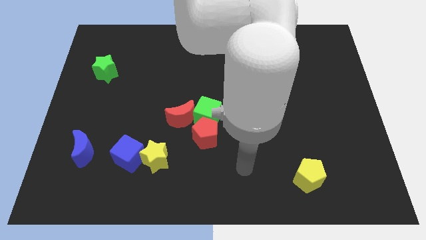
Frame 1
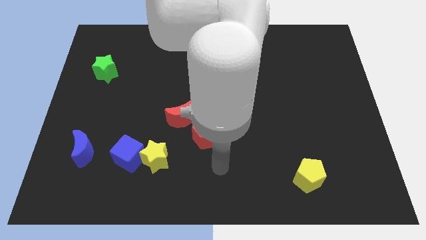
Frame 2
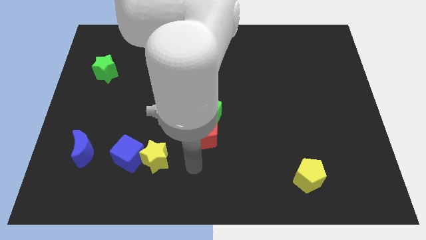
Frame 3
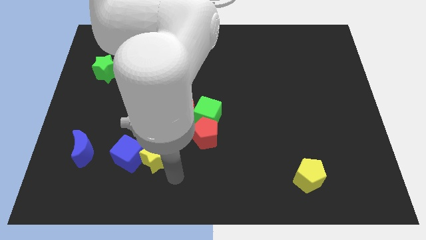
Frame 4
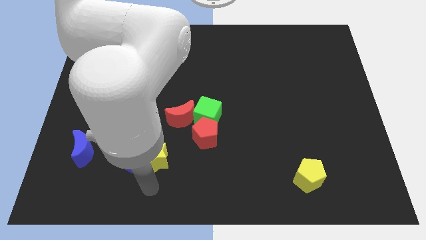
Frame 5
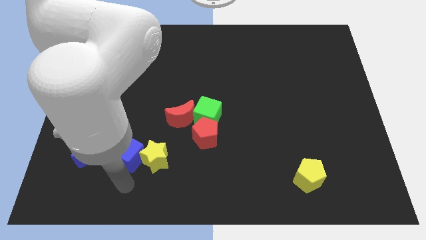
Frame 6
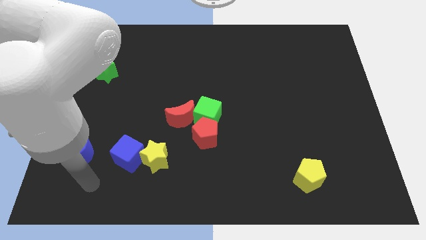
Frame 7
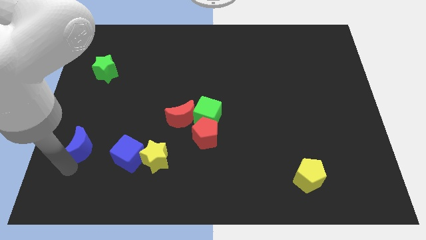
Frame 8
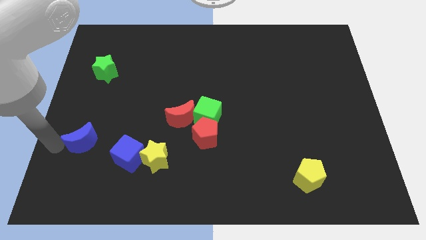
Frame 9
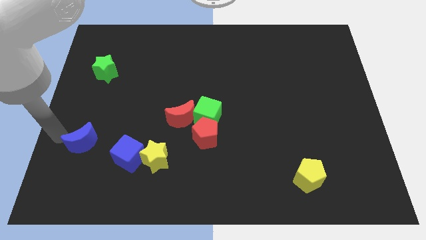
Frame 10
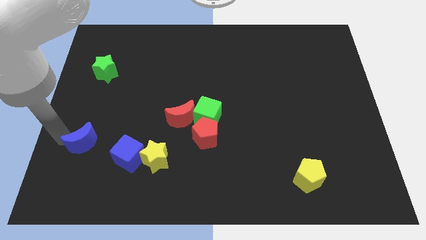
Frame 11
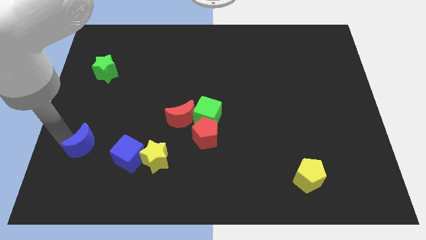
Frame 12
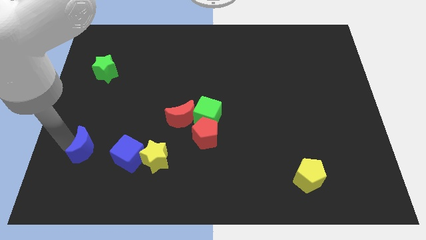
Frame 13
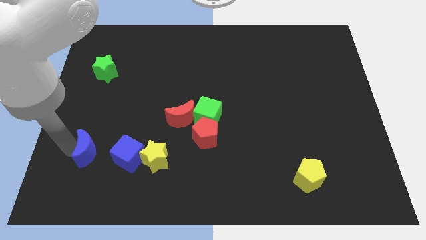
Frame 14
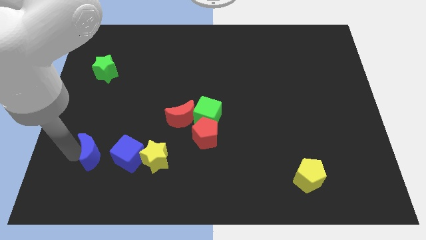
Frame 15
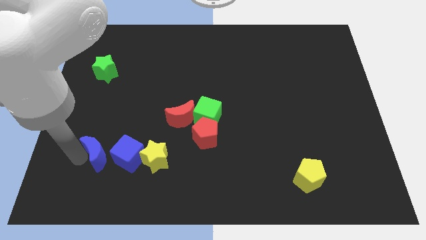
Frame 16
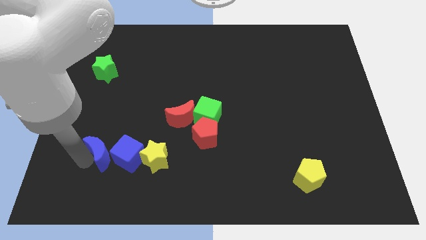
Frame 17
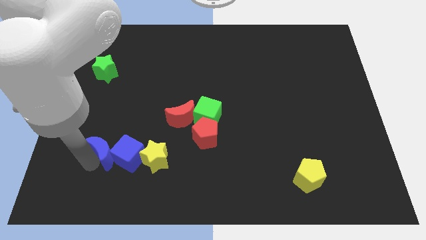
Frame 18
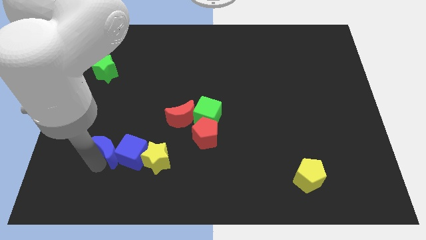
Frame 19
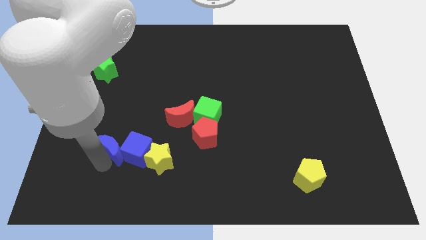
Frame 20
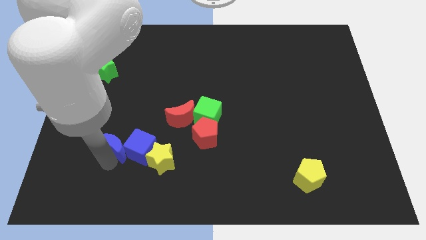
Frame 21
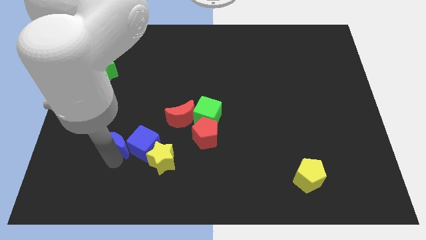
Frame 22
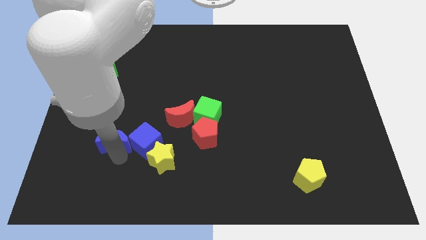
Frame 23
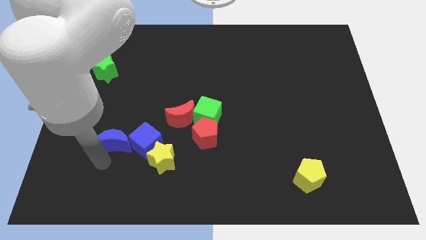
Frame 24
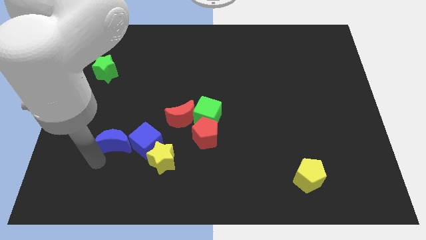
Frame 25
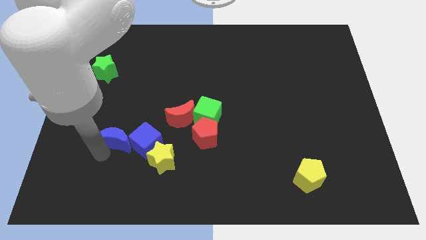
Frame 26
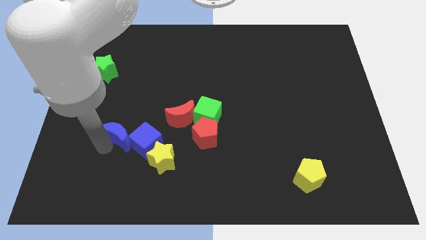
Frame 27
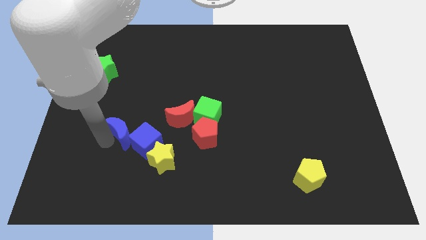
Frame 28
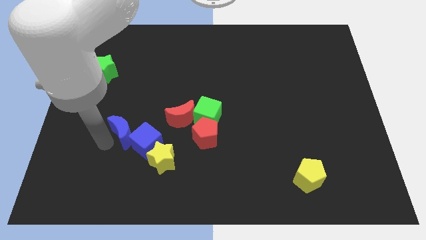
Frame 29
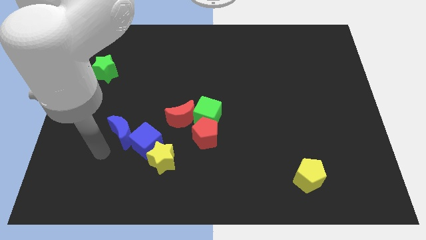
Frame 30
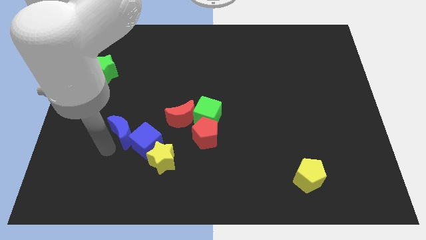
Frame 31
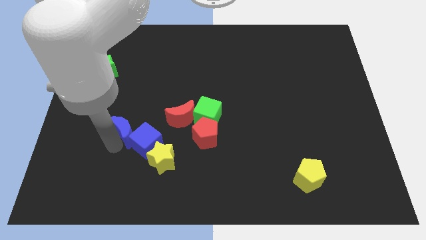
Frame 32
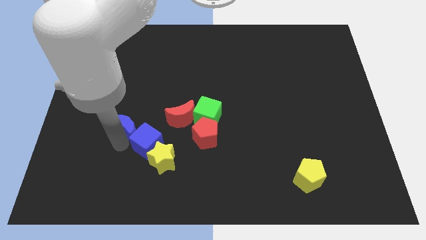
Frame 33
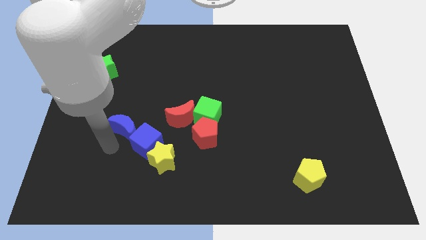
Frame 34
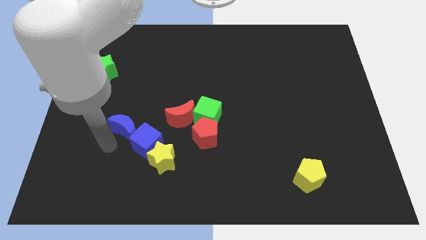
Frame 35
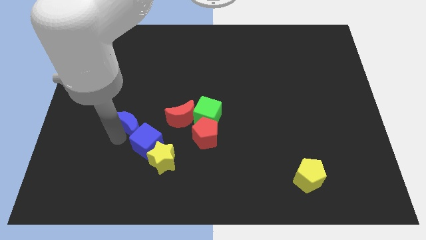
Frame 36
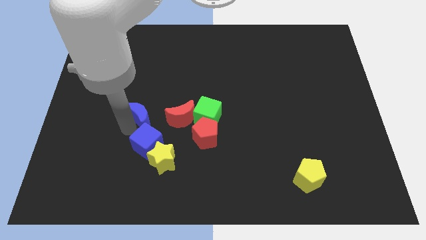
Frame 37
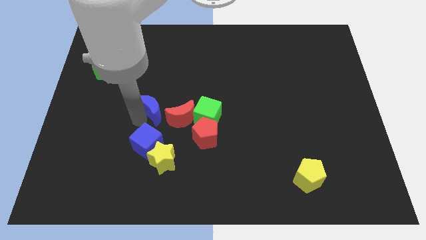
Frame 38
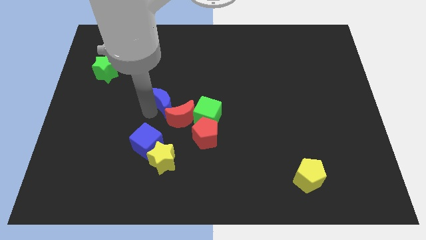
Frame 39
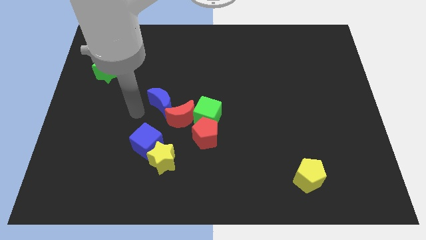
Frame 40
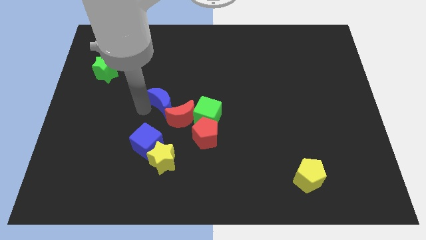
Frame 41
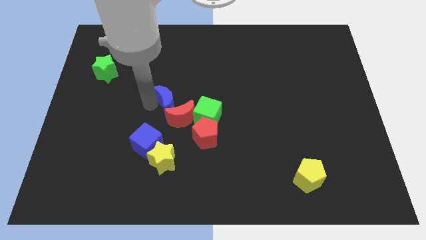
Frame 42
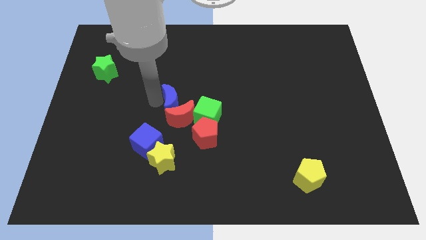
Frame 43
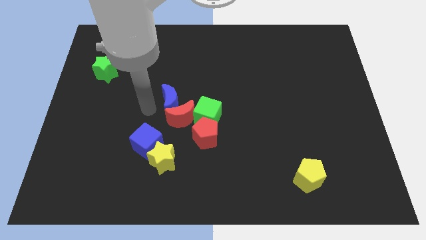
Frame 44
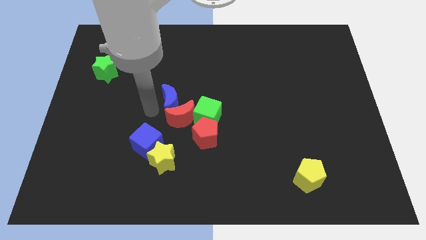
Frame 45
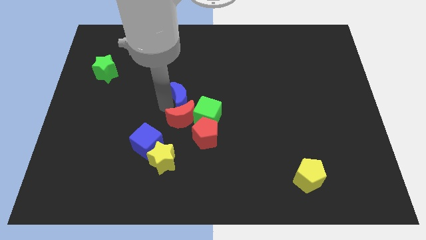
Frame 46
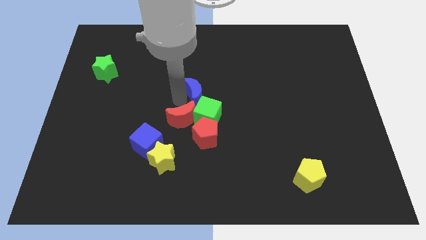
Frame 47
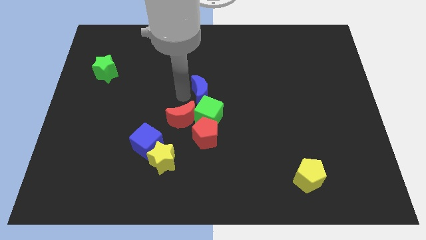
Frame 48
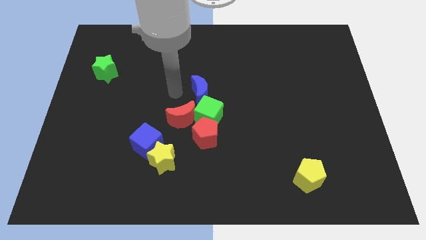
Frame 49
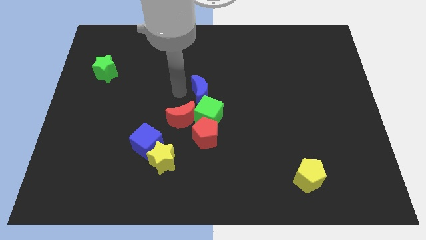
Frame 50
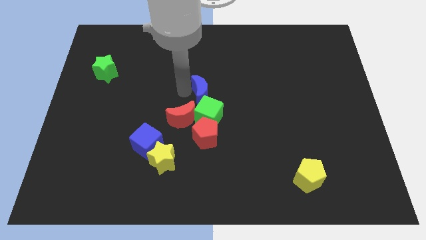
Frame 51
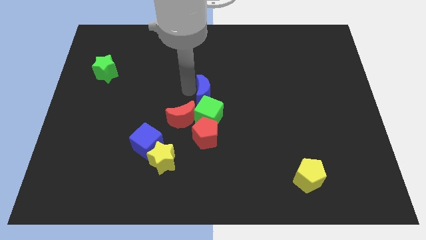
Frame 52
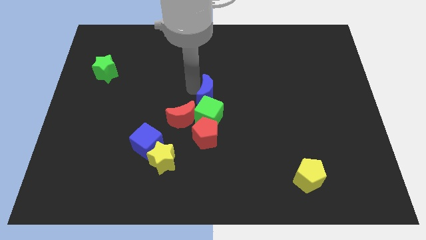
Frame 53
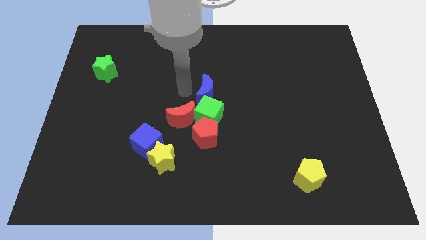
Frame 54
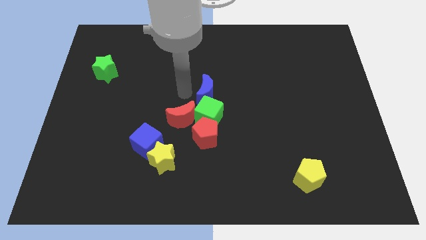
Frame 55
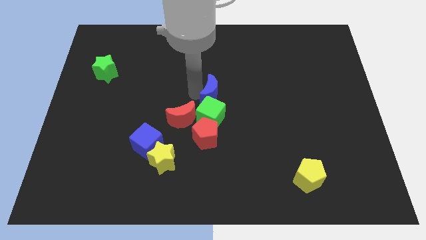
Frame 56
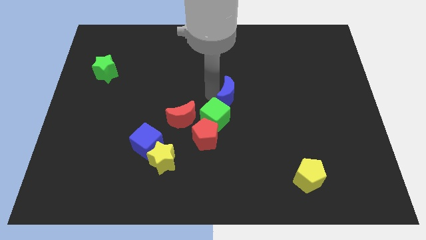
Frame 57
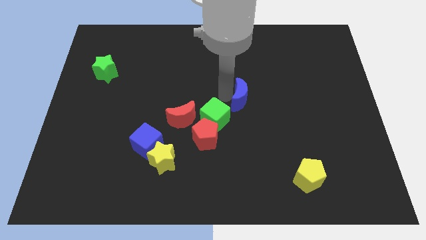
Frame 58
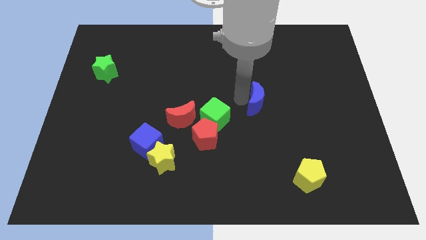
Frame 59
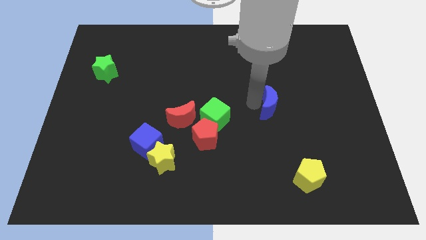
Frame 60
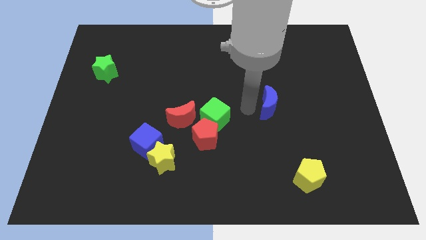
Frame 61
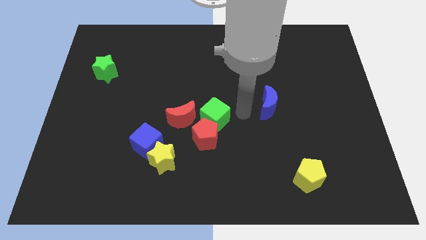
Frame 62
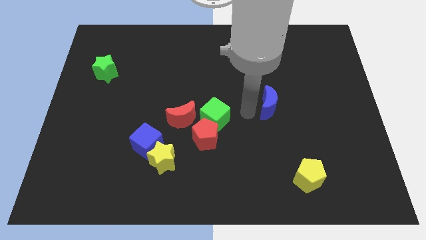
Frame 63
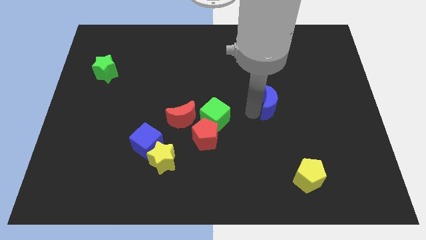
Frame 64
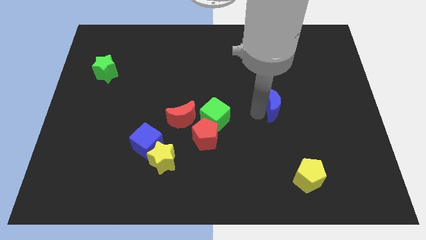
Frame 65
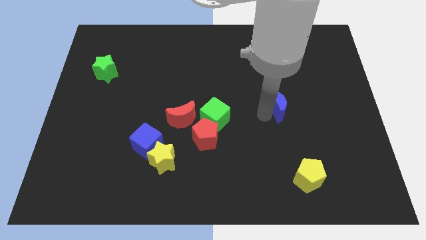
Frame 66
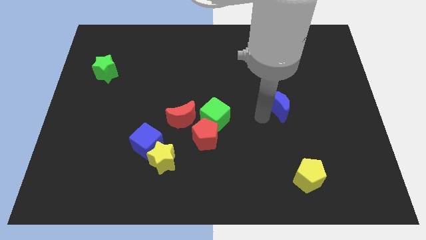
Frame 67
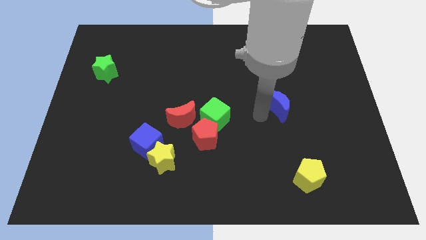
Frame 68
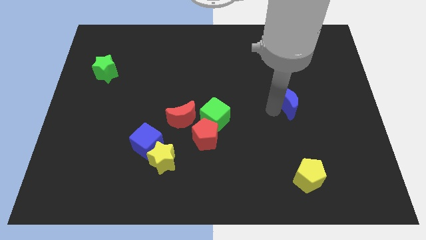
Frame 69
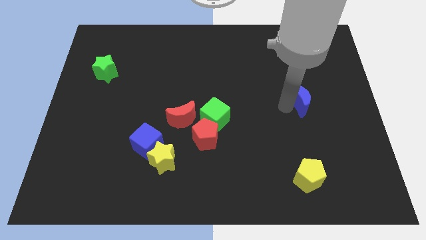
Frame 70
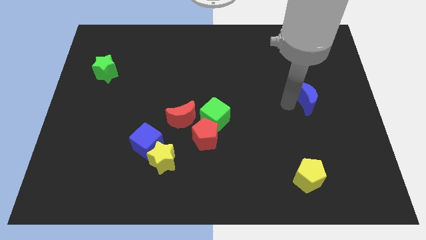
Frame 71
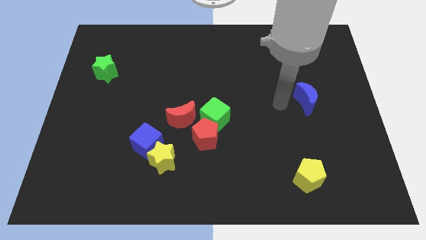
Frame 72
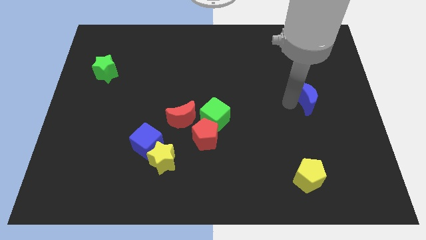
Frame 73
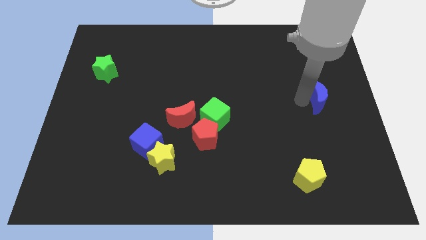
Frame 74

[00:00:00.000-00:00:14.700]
move the blue moon to the right side of the board

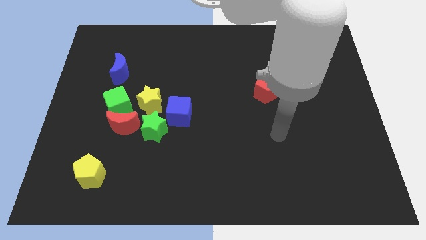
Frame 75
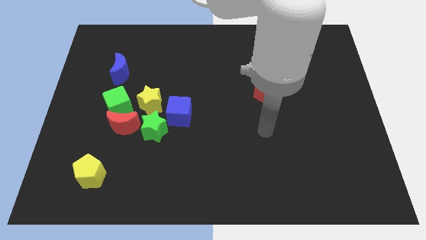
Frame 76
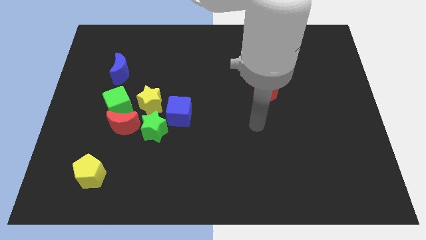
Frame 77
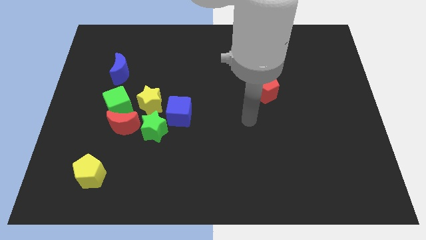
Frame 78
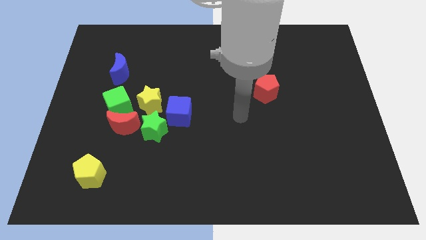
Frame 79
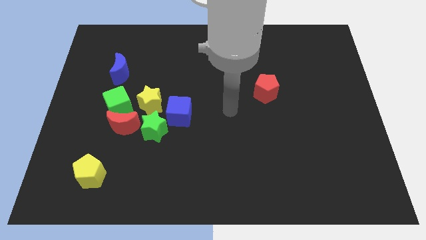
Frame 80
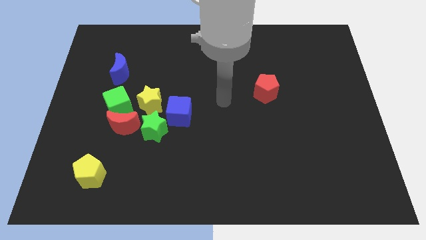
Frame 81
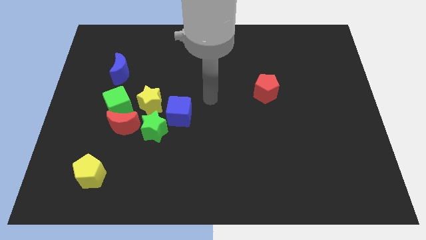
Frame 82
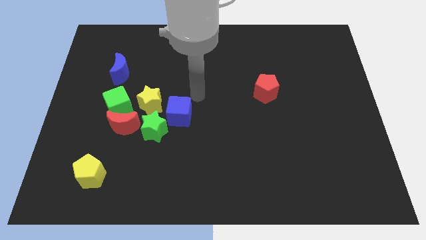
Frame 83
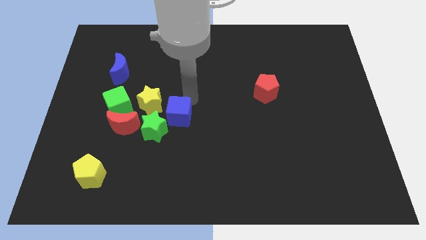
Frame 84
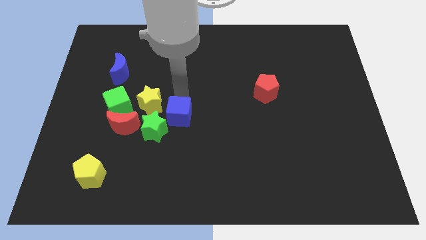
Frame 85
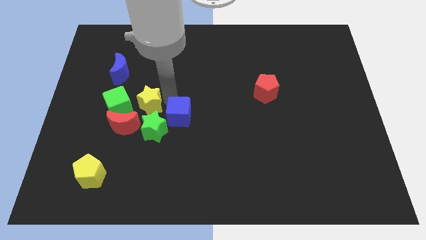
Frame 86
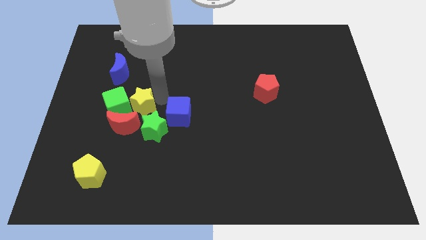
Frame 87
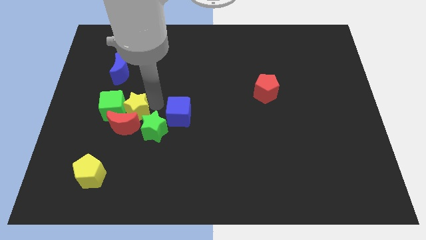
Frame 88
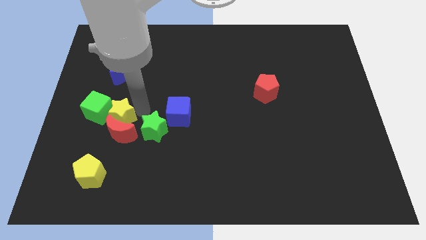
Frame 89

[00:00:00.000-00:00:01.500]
move the green cube to the center left
